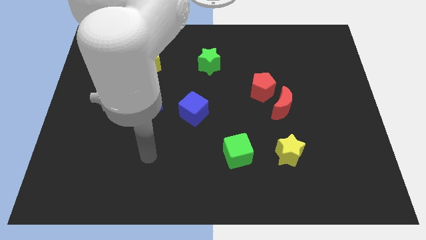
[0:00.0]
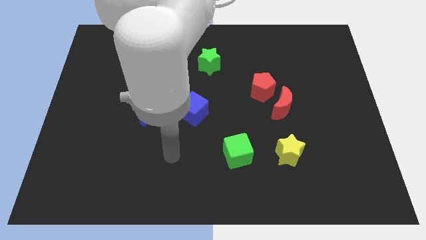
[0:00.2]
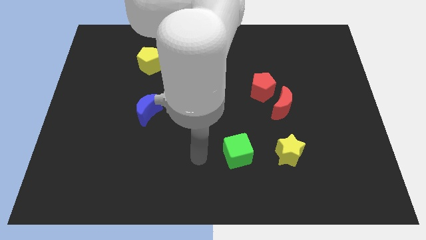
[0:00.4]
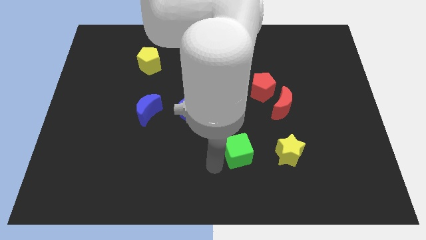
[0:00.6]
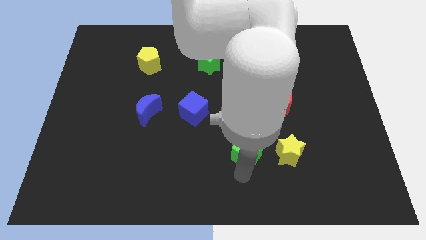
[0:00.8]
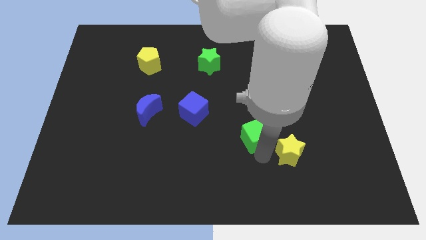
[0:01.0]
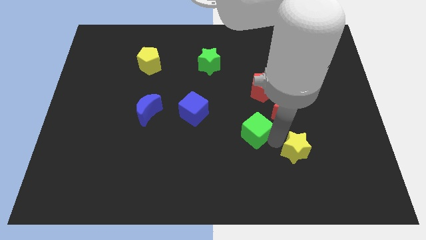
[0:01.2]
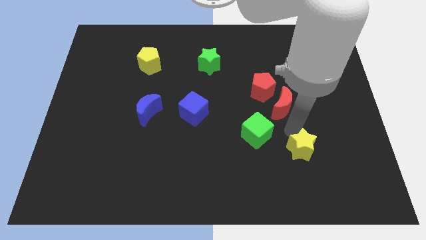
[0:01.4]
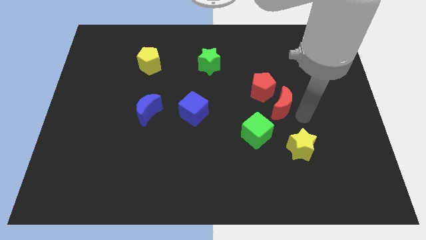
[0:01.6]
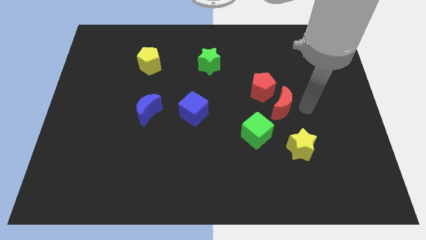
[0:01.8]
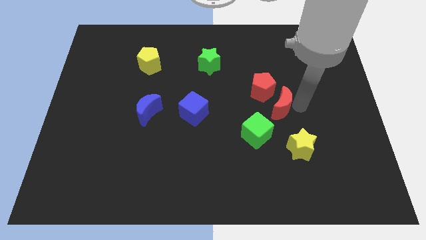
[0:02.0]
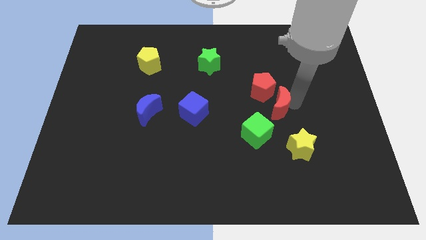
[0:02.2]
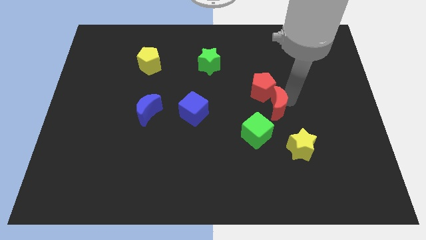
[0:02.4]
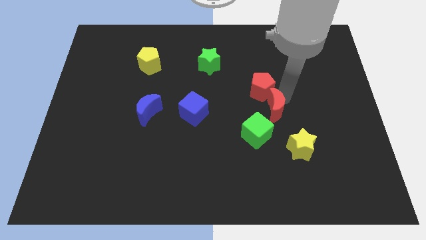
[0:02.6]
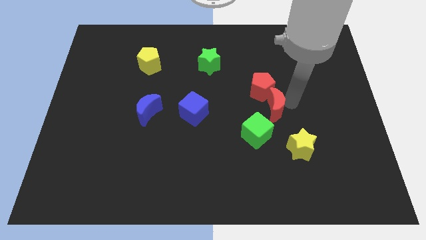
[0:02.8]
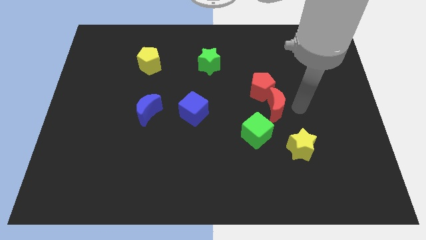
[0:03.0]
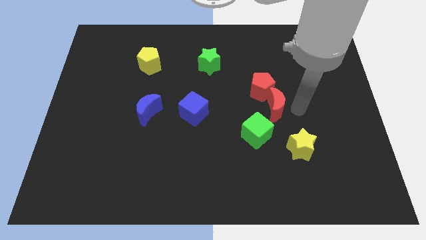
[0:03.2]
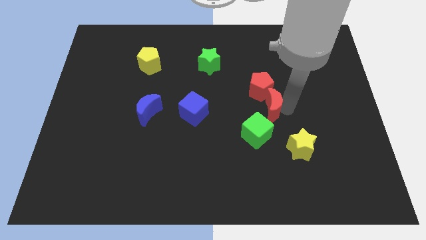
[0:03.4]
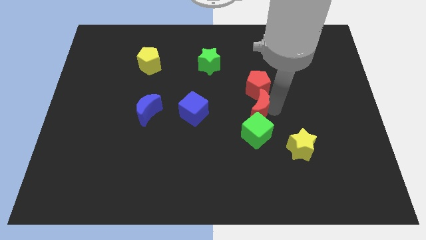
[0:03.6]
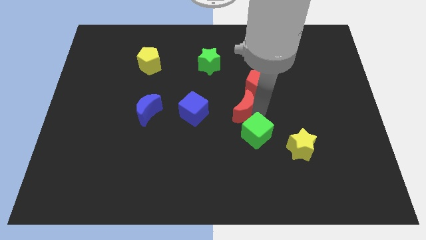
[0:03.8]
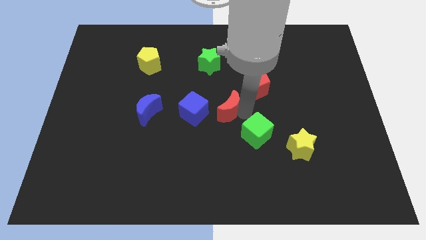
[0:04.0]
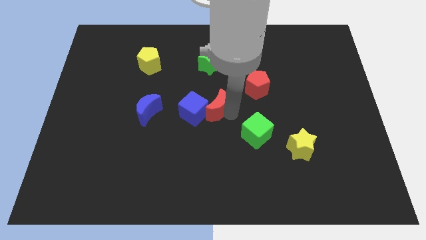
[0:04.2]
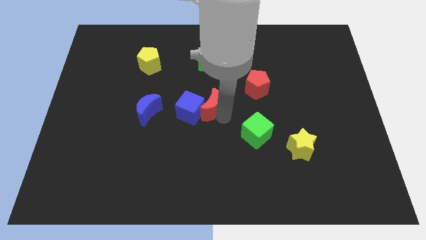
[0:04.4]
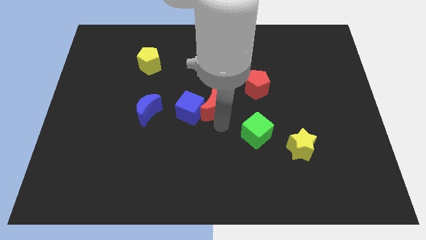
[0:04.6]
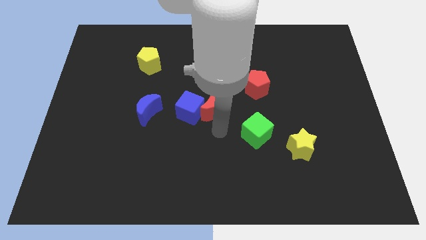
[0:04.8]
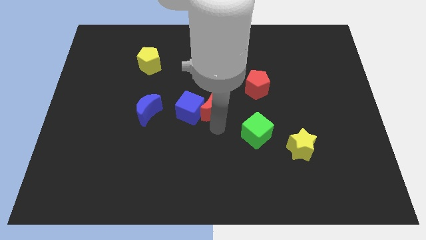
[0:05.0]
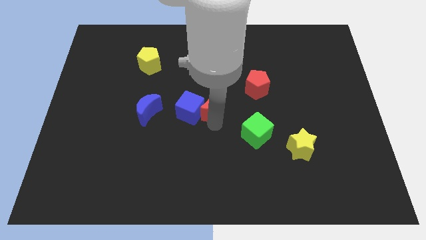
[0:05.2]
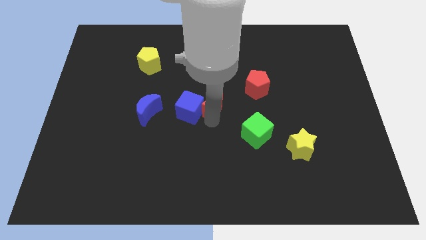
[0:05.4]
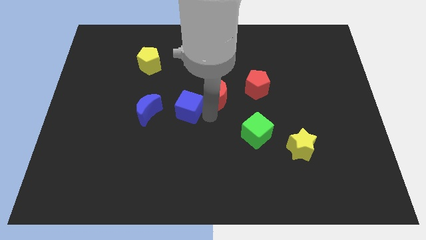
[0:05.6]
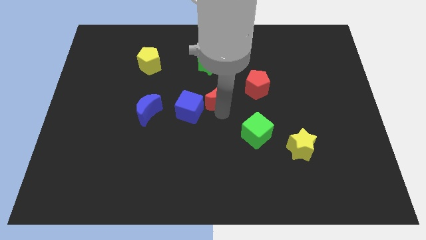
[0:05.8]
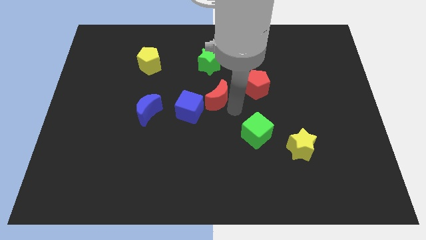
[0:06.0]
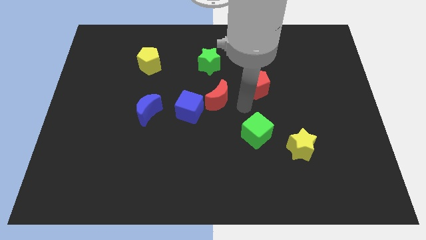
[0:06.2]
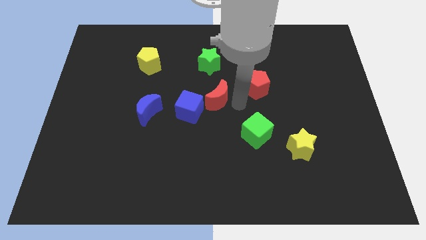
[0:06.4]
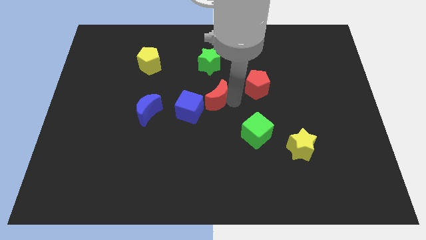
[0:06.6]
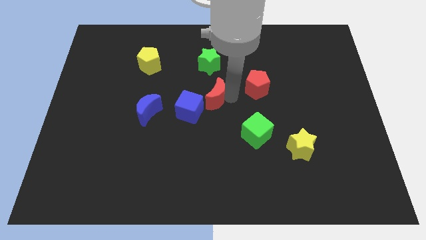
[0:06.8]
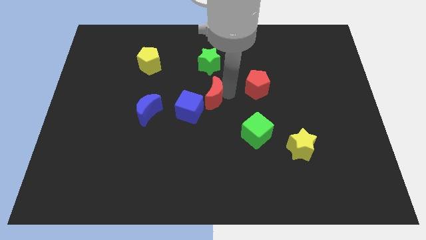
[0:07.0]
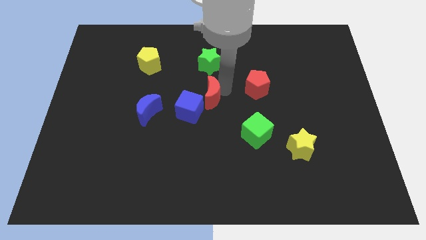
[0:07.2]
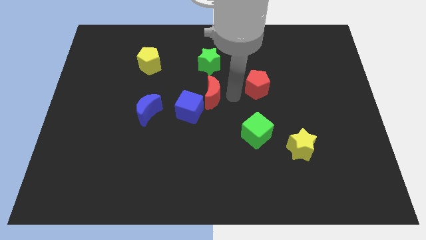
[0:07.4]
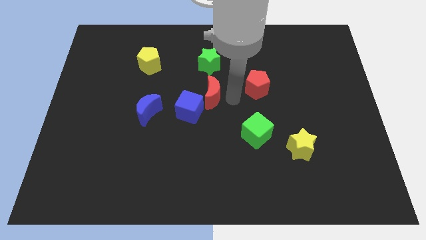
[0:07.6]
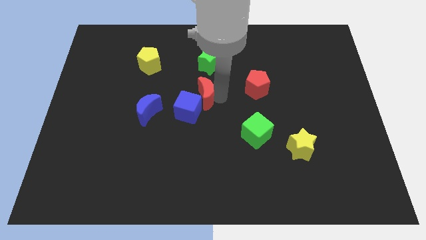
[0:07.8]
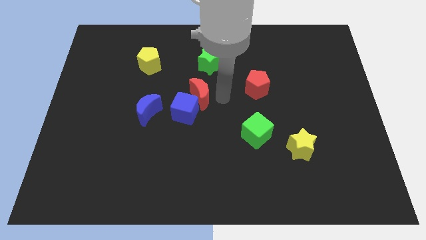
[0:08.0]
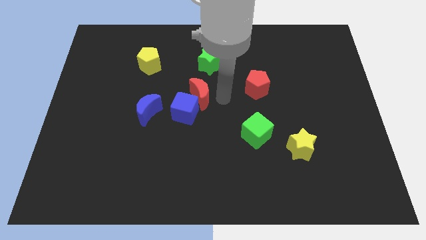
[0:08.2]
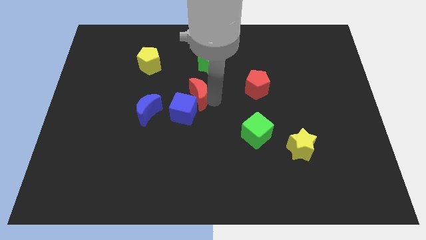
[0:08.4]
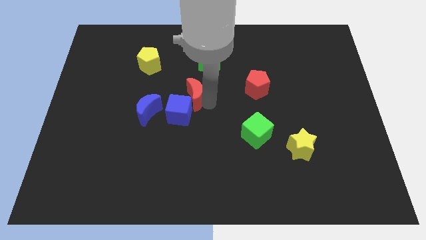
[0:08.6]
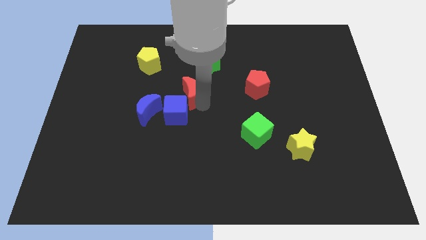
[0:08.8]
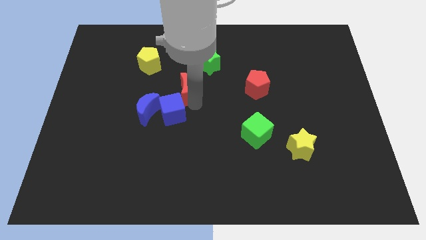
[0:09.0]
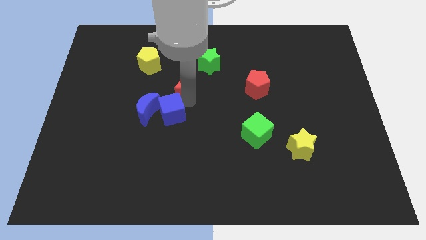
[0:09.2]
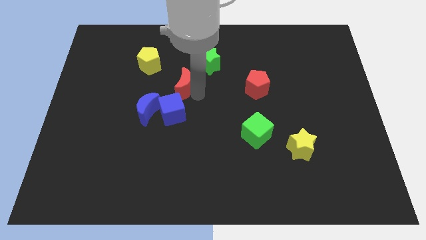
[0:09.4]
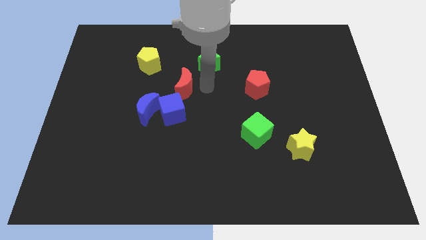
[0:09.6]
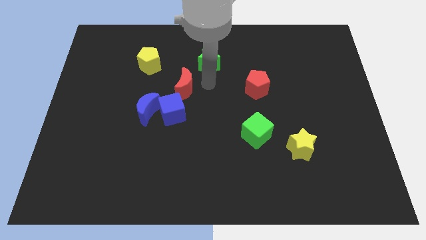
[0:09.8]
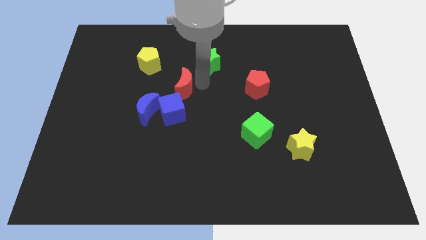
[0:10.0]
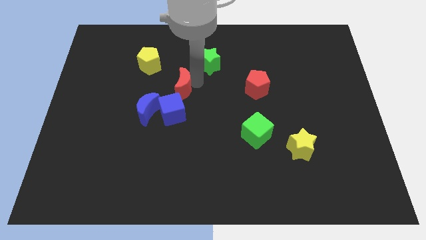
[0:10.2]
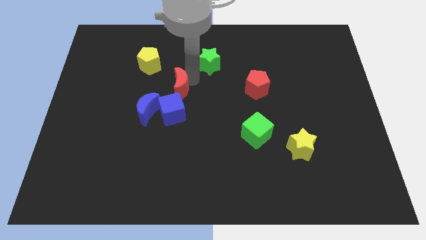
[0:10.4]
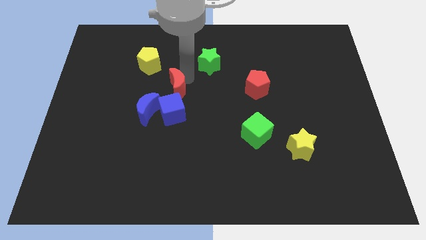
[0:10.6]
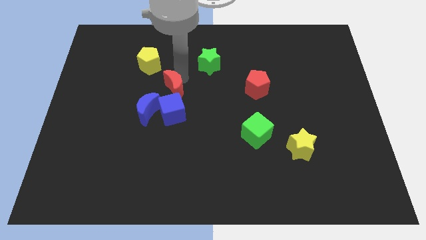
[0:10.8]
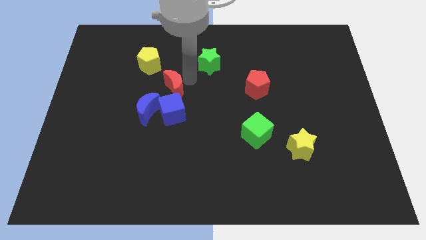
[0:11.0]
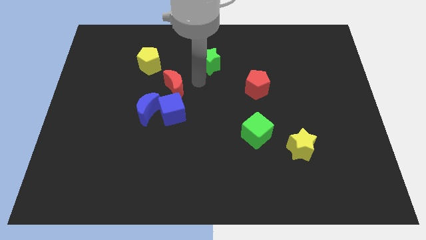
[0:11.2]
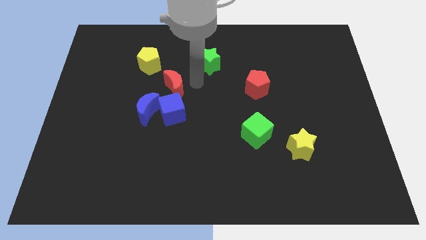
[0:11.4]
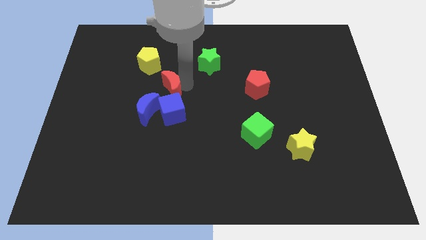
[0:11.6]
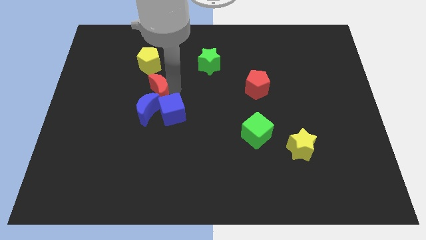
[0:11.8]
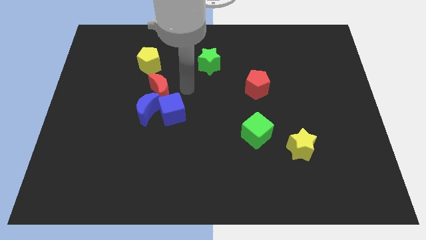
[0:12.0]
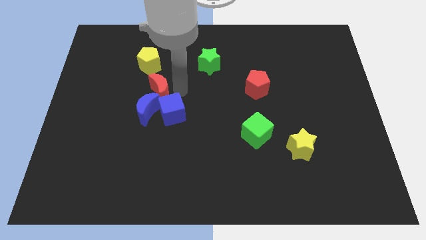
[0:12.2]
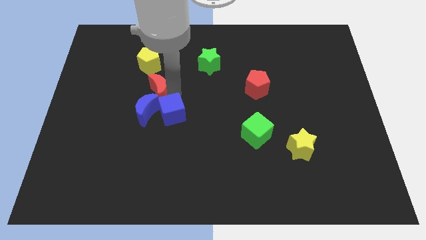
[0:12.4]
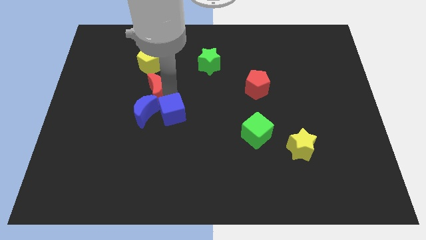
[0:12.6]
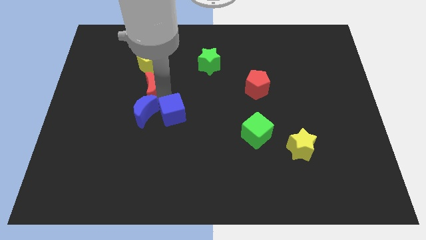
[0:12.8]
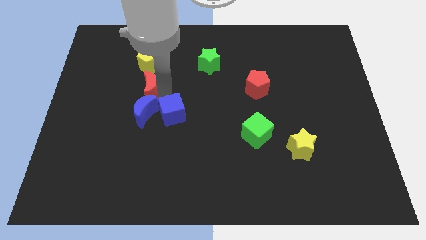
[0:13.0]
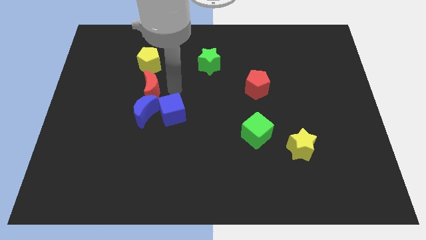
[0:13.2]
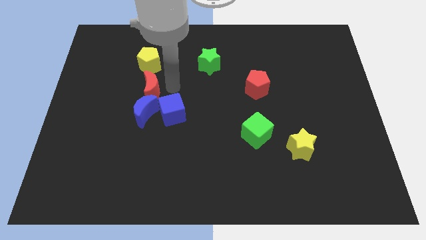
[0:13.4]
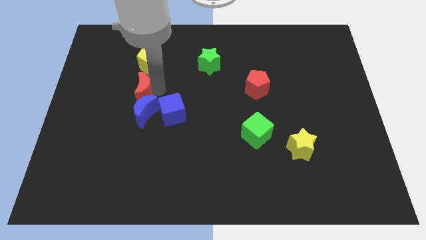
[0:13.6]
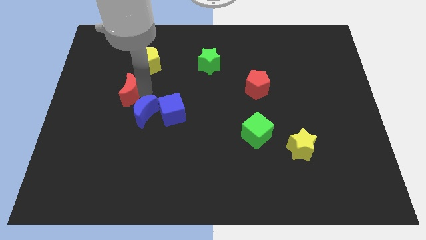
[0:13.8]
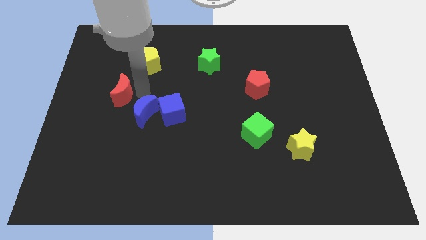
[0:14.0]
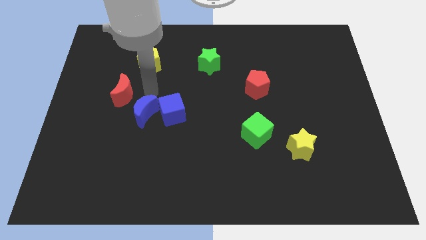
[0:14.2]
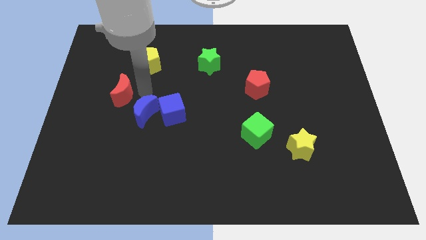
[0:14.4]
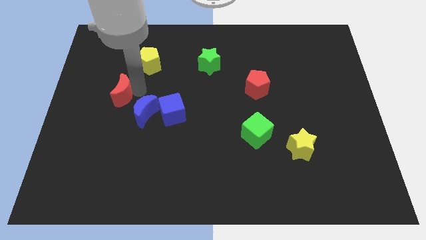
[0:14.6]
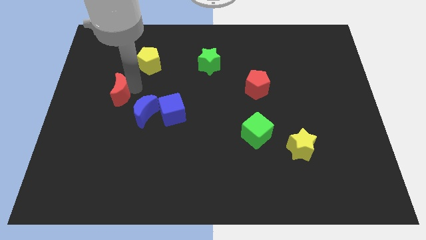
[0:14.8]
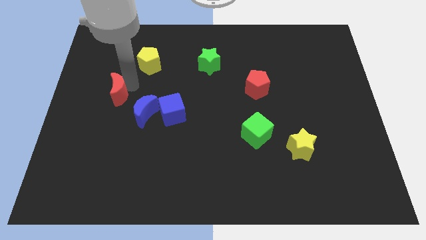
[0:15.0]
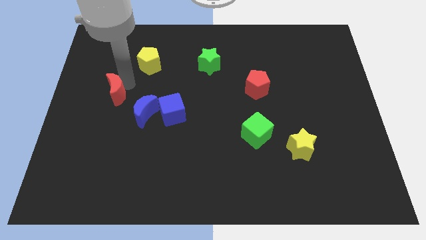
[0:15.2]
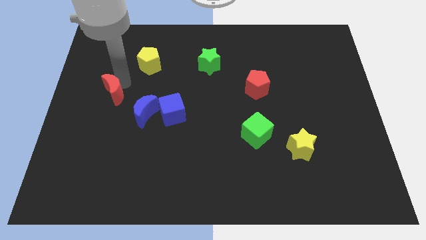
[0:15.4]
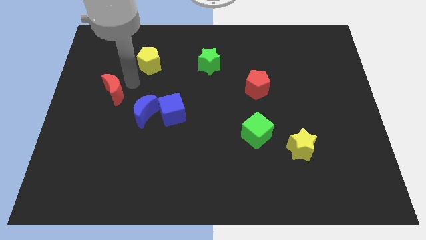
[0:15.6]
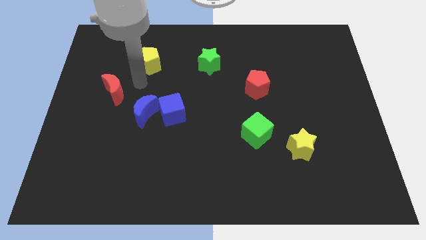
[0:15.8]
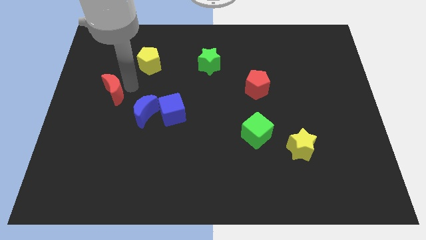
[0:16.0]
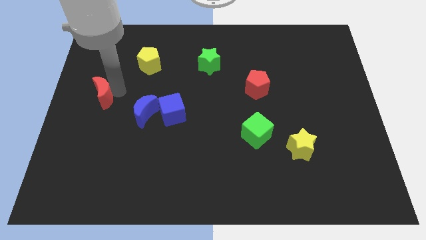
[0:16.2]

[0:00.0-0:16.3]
slide the red moon to the center left
